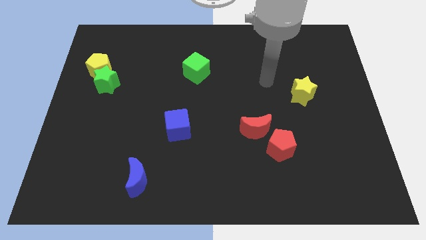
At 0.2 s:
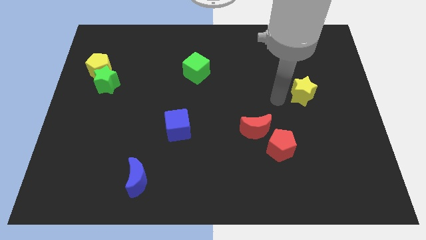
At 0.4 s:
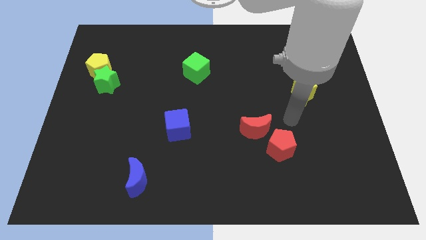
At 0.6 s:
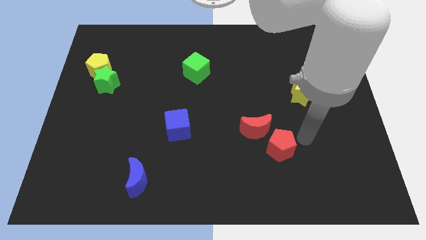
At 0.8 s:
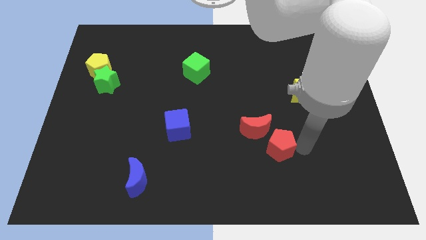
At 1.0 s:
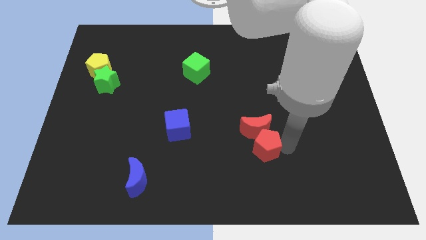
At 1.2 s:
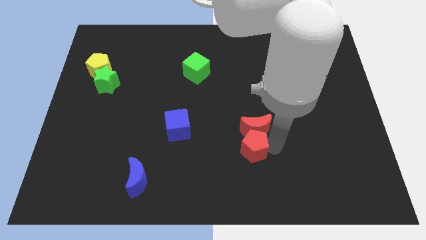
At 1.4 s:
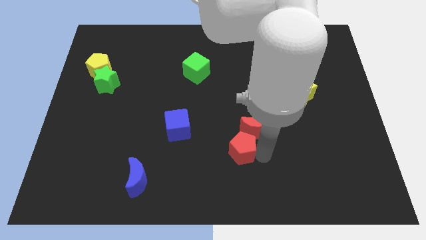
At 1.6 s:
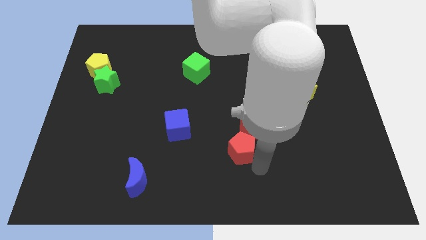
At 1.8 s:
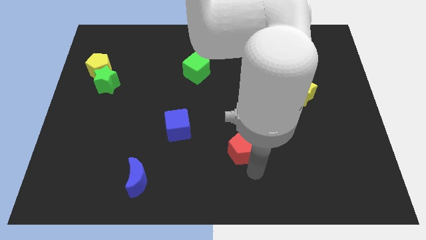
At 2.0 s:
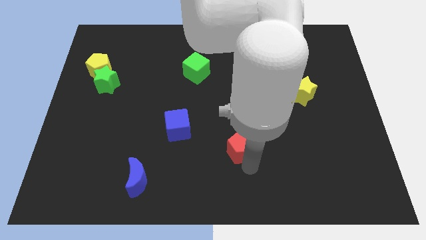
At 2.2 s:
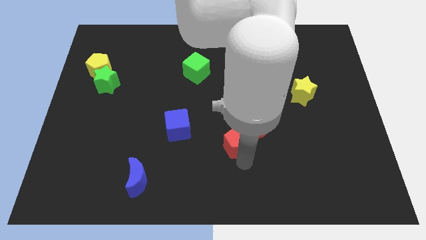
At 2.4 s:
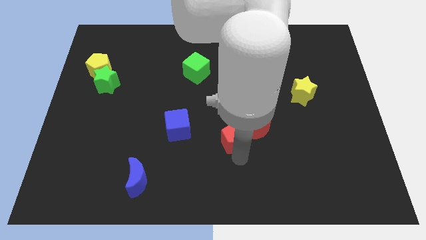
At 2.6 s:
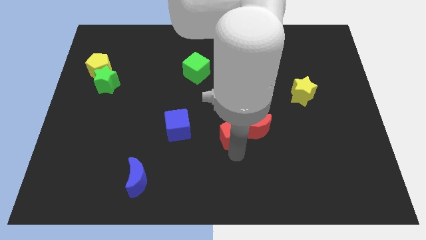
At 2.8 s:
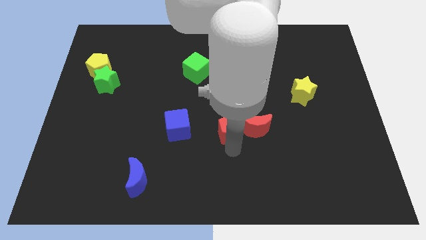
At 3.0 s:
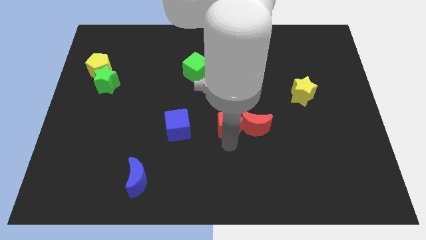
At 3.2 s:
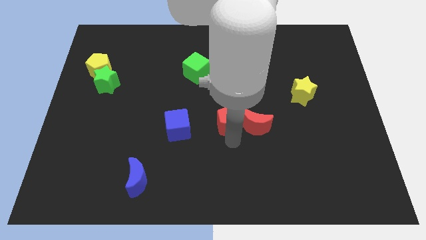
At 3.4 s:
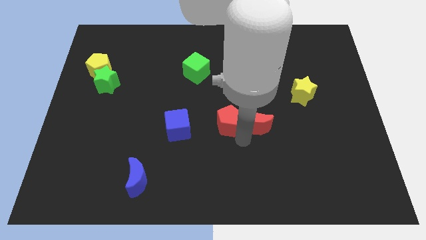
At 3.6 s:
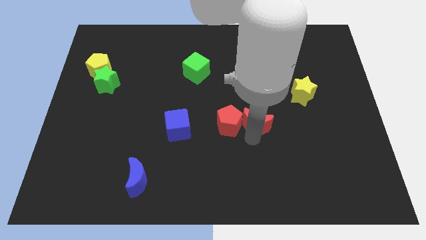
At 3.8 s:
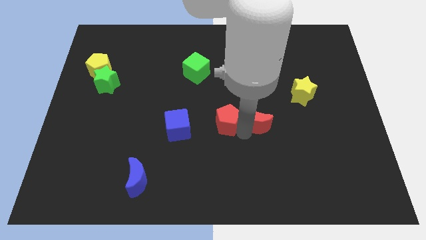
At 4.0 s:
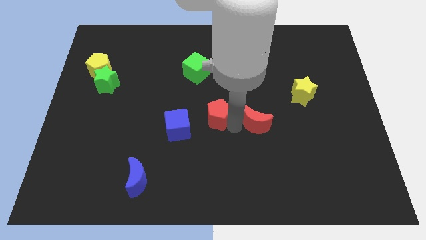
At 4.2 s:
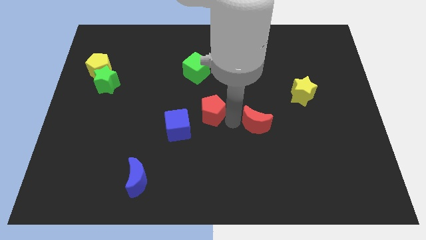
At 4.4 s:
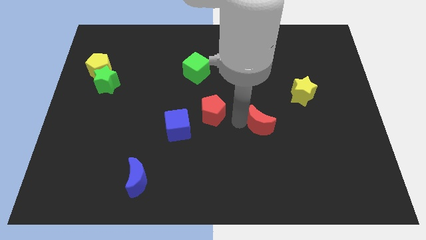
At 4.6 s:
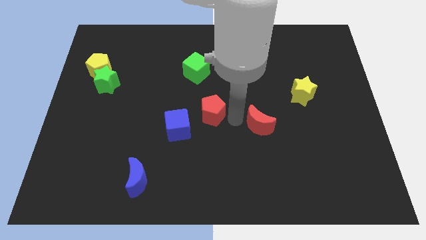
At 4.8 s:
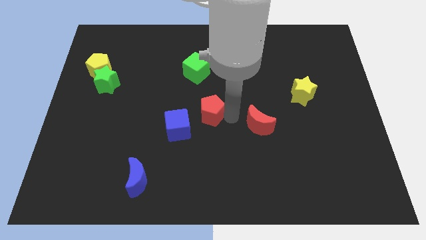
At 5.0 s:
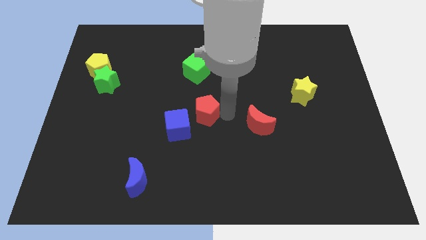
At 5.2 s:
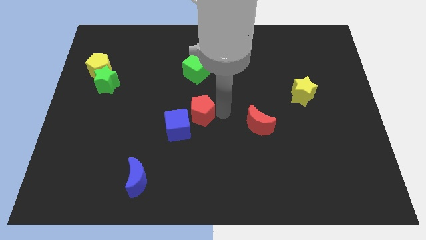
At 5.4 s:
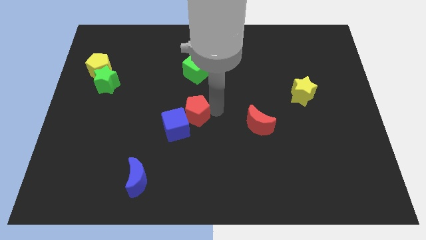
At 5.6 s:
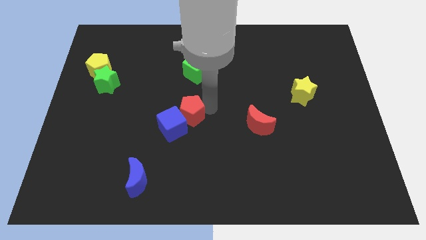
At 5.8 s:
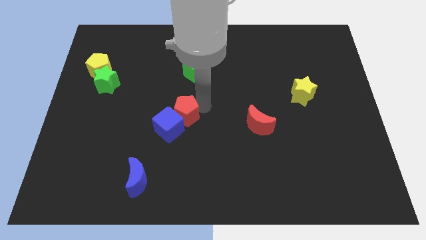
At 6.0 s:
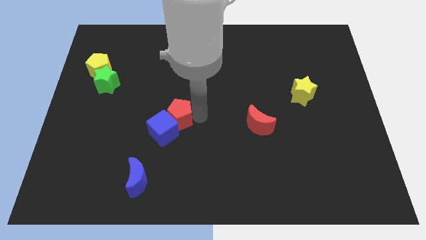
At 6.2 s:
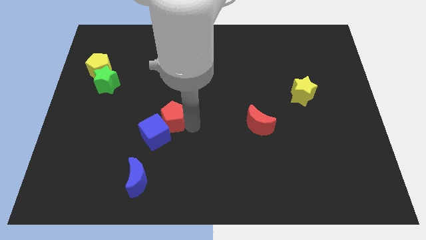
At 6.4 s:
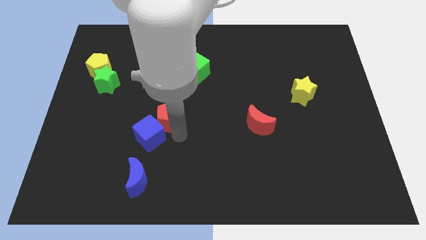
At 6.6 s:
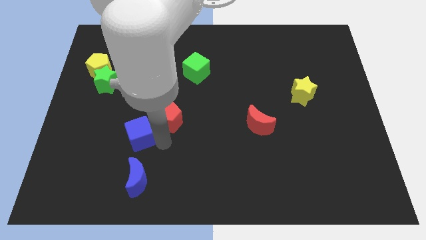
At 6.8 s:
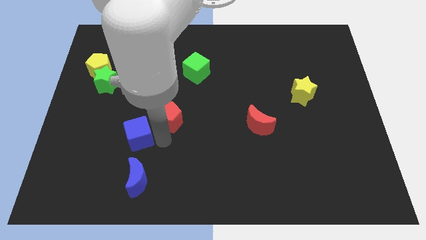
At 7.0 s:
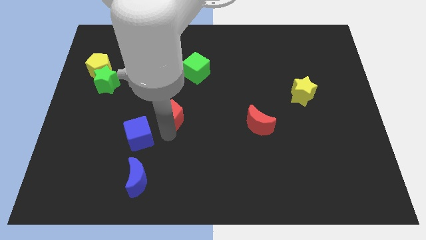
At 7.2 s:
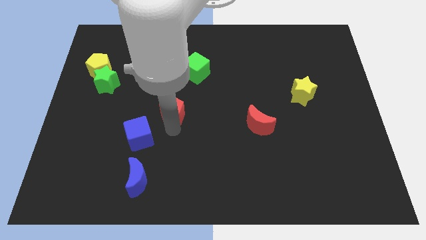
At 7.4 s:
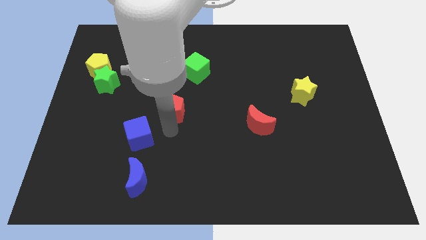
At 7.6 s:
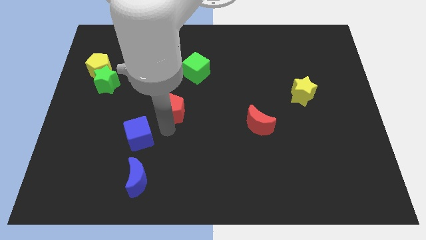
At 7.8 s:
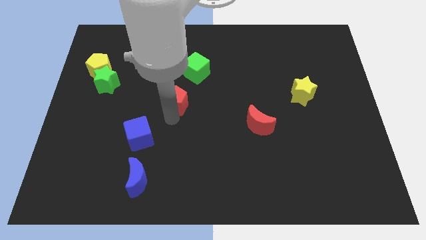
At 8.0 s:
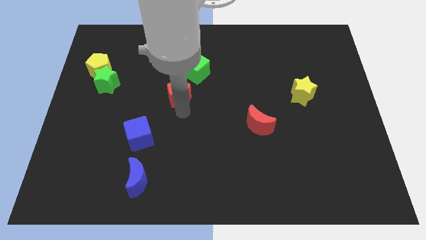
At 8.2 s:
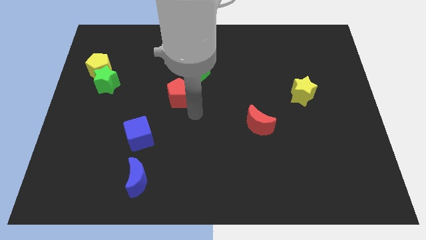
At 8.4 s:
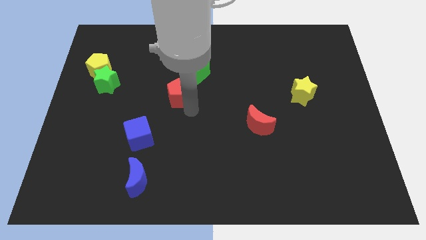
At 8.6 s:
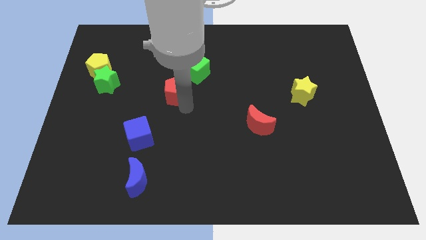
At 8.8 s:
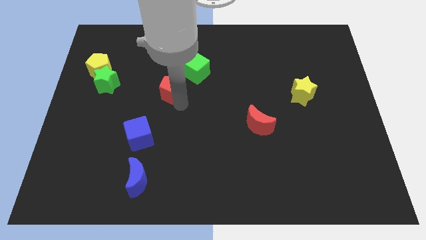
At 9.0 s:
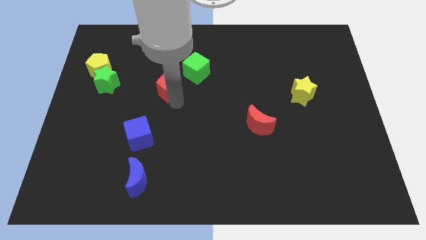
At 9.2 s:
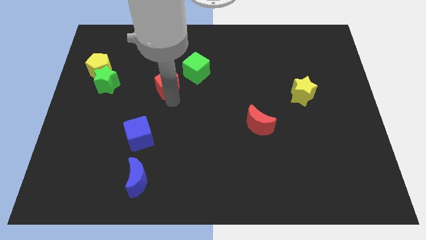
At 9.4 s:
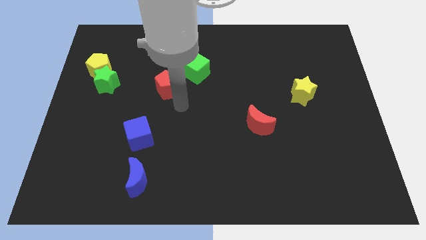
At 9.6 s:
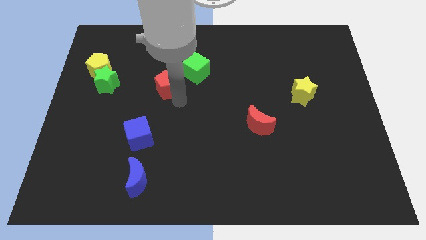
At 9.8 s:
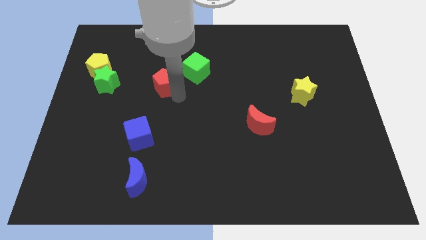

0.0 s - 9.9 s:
push the red pentagon left of the green cube

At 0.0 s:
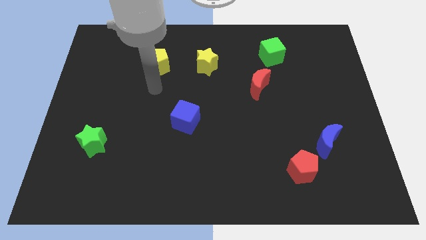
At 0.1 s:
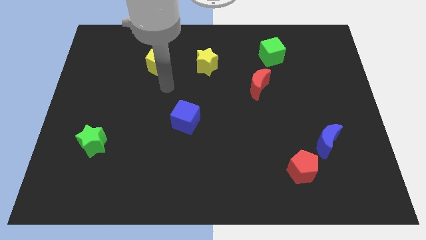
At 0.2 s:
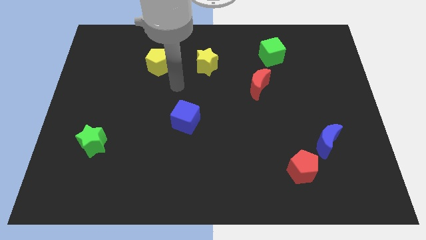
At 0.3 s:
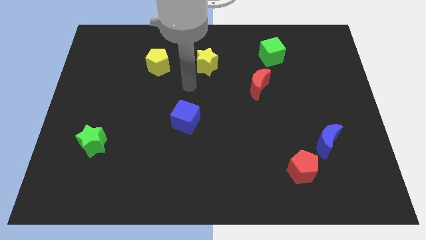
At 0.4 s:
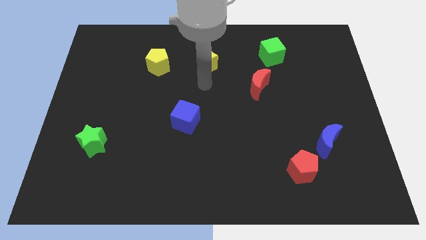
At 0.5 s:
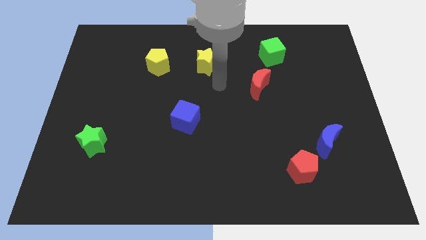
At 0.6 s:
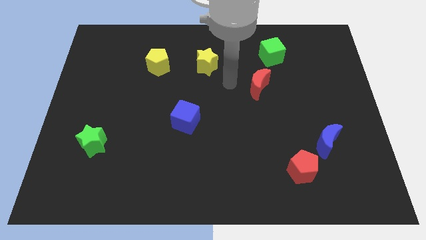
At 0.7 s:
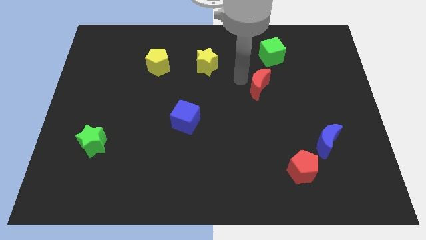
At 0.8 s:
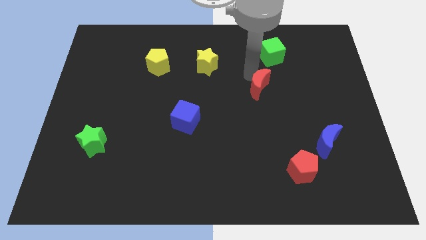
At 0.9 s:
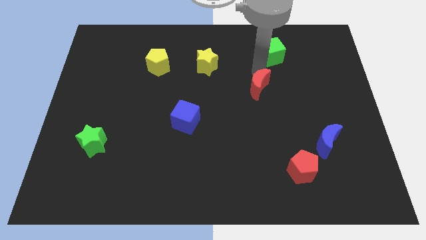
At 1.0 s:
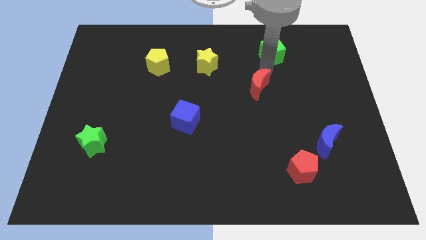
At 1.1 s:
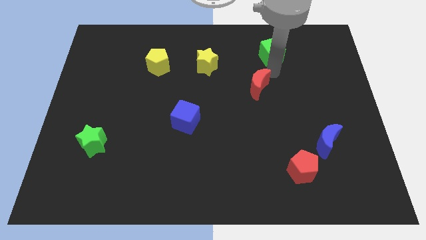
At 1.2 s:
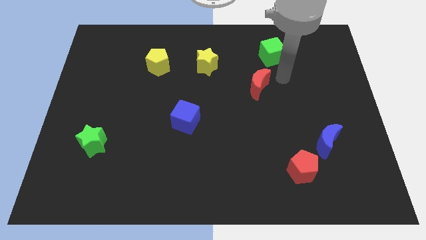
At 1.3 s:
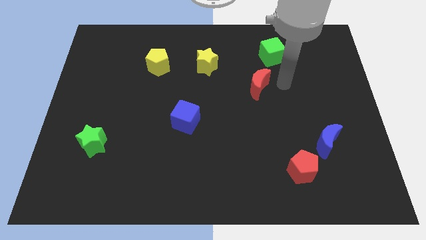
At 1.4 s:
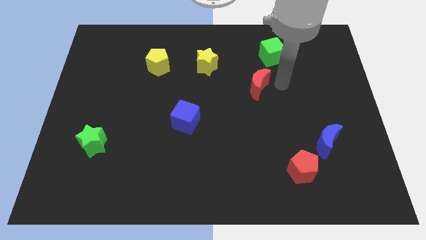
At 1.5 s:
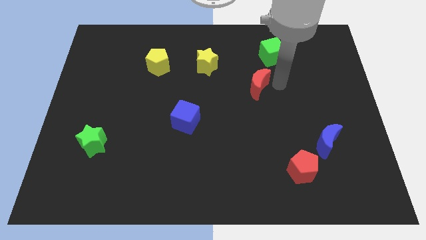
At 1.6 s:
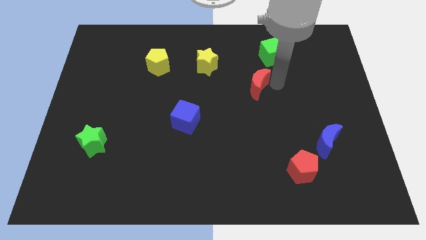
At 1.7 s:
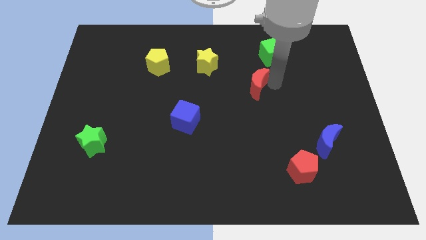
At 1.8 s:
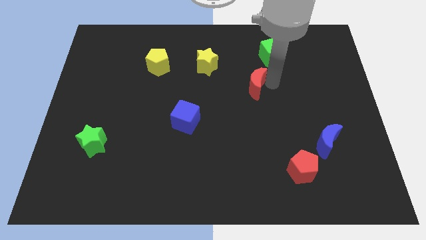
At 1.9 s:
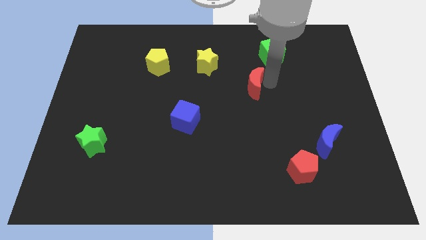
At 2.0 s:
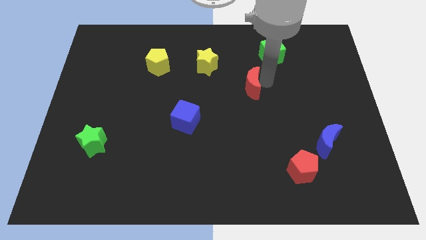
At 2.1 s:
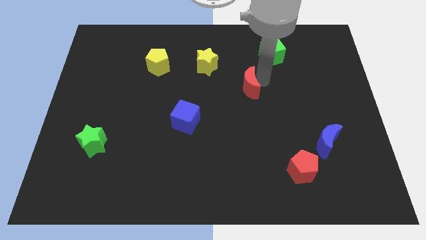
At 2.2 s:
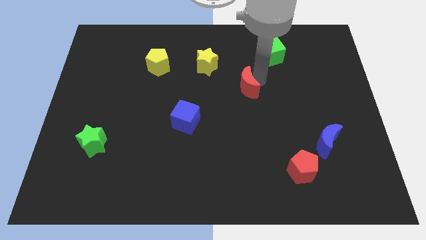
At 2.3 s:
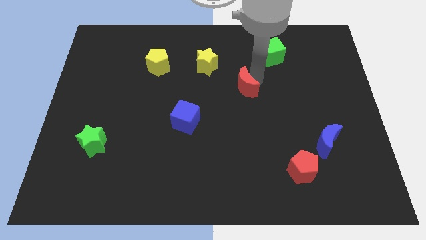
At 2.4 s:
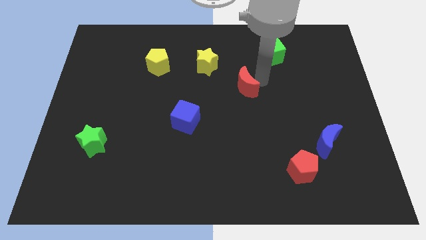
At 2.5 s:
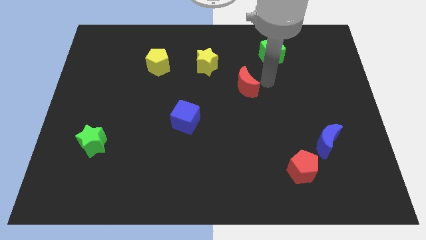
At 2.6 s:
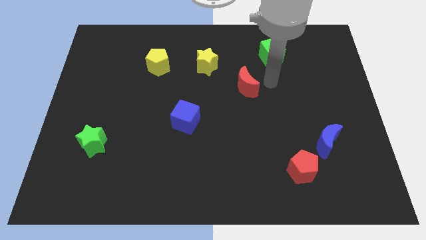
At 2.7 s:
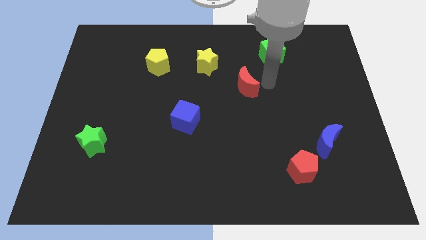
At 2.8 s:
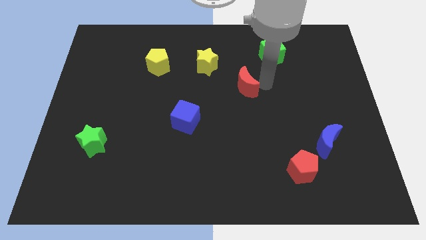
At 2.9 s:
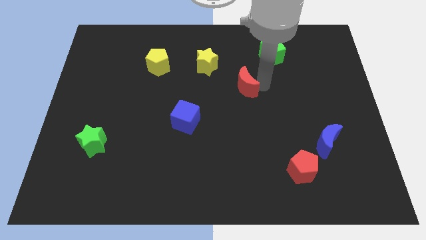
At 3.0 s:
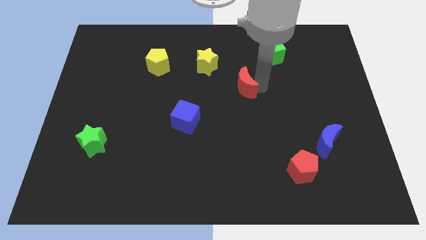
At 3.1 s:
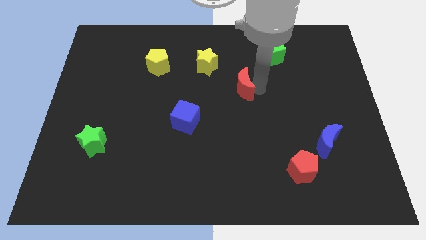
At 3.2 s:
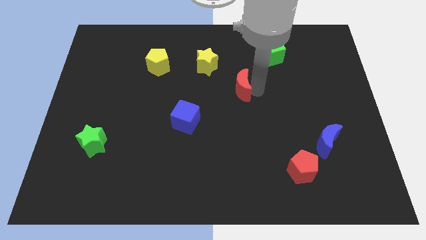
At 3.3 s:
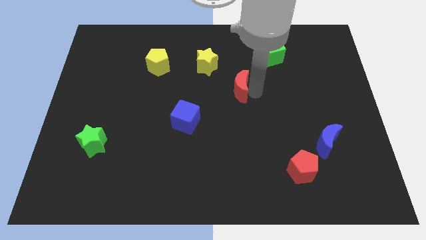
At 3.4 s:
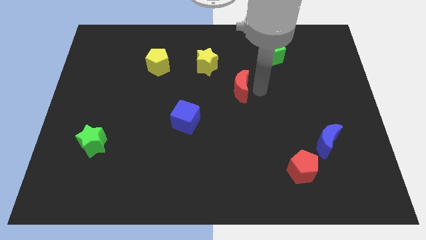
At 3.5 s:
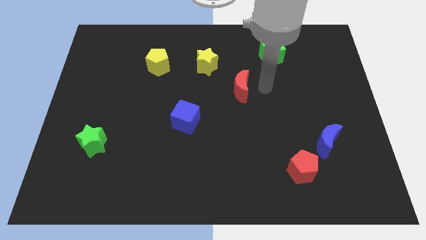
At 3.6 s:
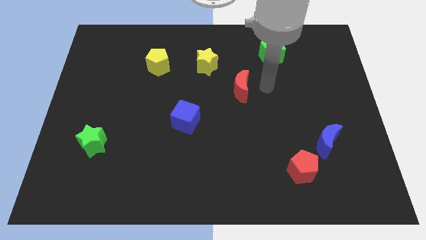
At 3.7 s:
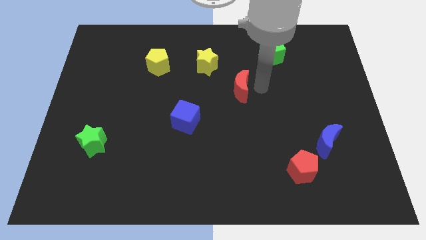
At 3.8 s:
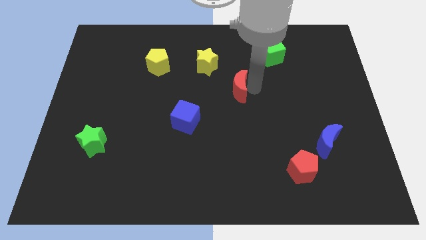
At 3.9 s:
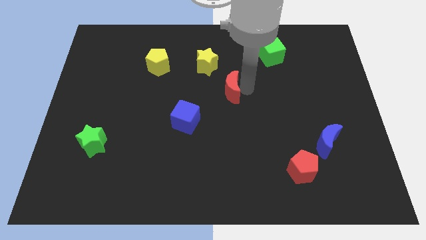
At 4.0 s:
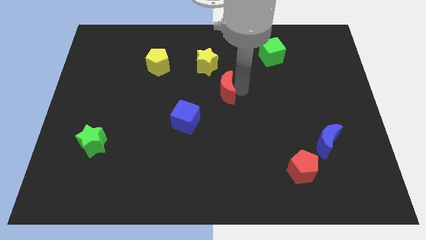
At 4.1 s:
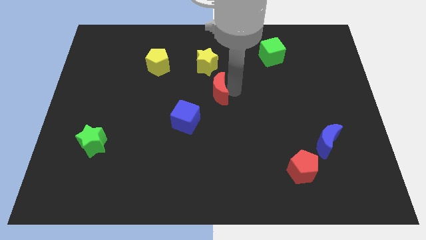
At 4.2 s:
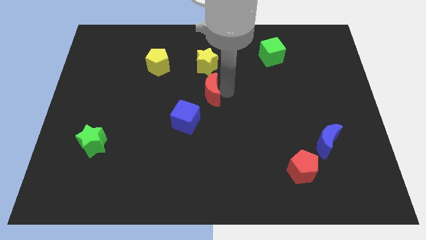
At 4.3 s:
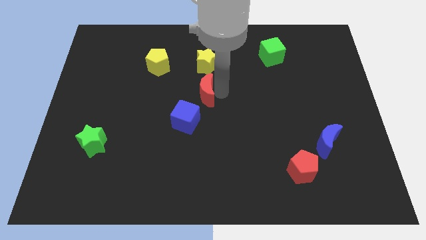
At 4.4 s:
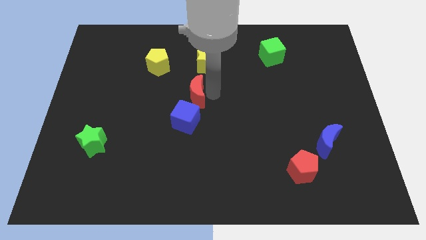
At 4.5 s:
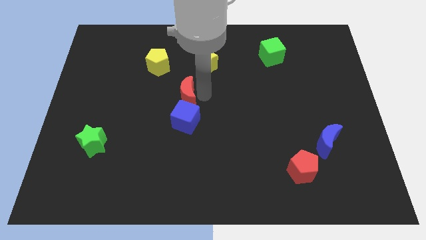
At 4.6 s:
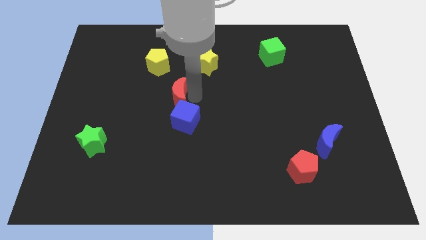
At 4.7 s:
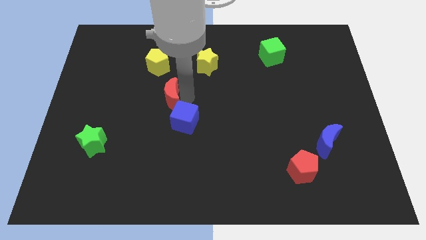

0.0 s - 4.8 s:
put the red moon below the yellow pentagon
